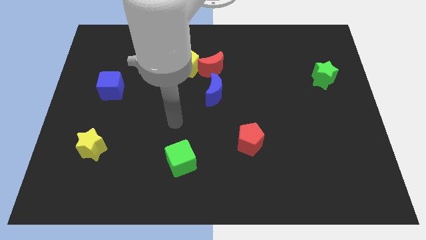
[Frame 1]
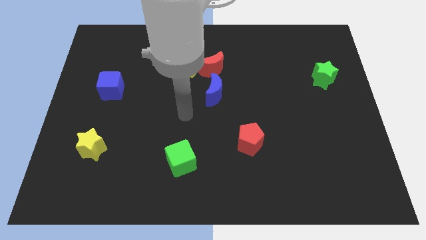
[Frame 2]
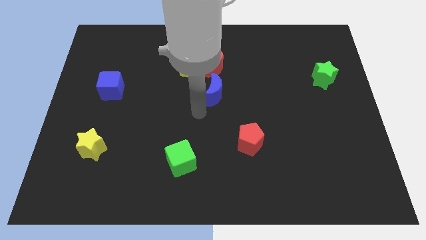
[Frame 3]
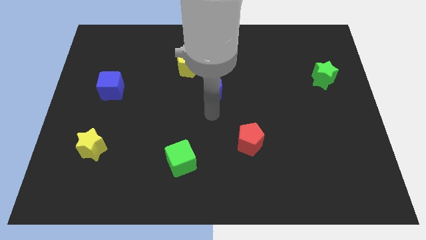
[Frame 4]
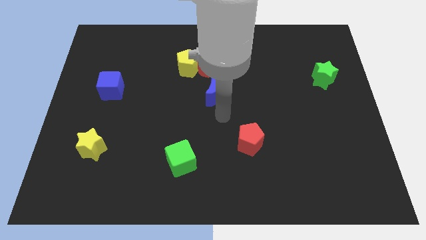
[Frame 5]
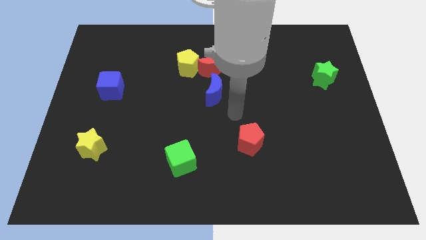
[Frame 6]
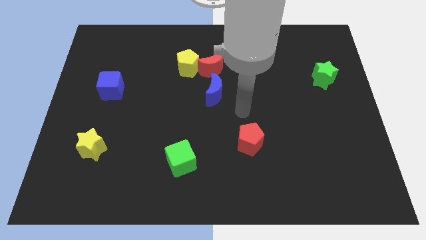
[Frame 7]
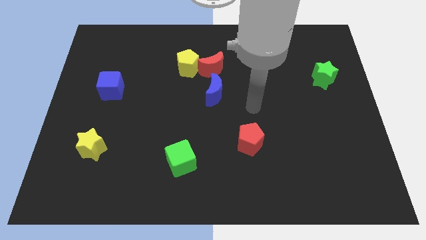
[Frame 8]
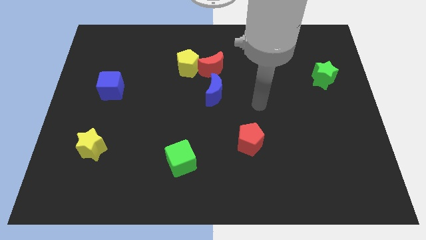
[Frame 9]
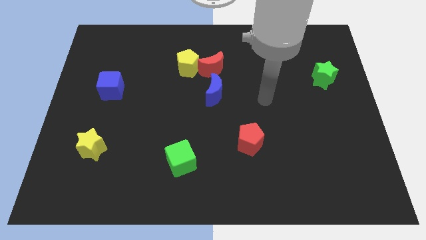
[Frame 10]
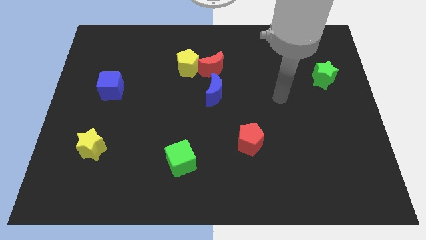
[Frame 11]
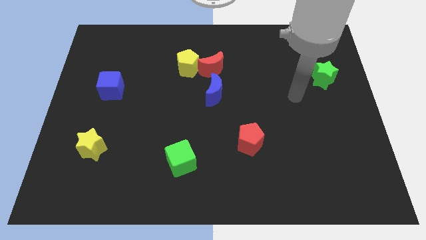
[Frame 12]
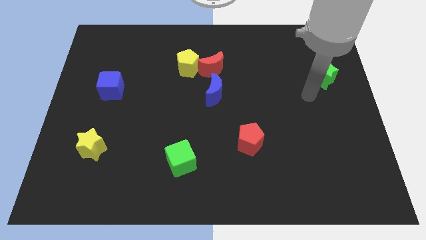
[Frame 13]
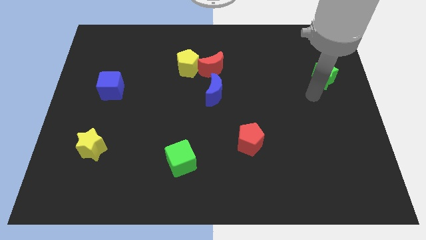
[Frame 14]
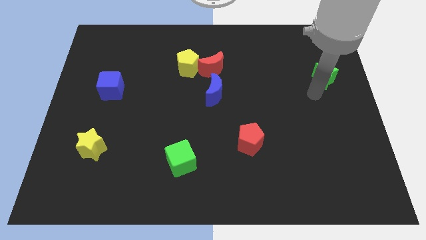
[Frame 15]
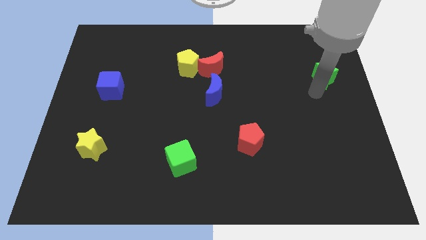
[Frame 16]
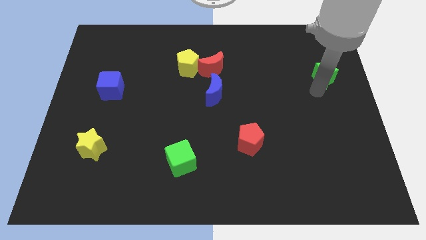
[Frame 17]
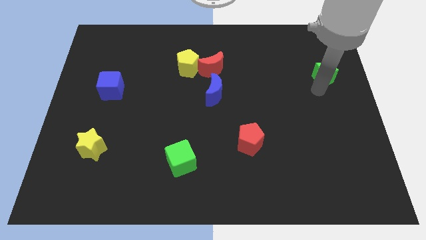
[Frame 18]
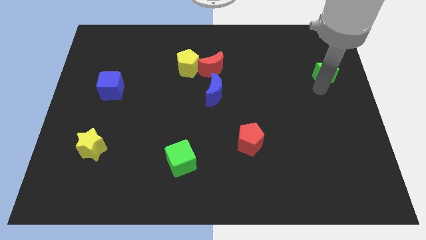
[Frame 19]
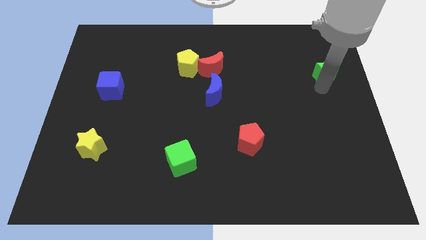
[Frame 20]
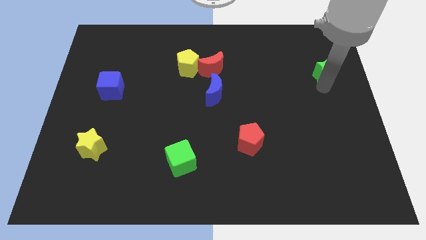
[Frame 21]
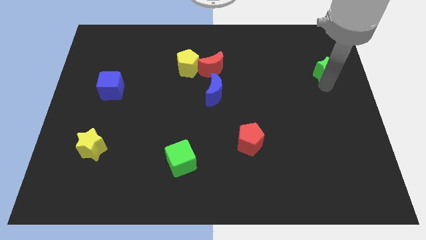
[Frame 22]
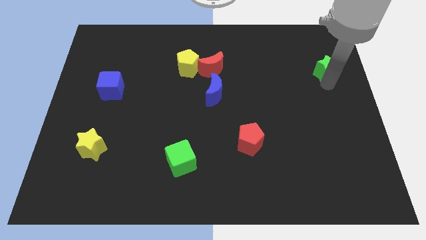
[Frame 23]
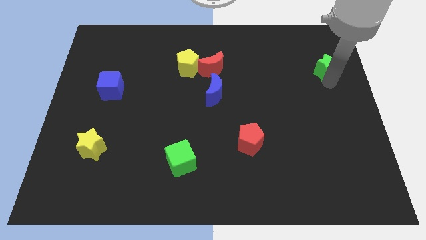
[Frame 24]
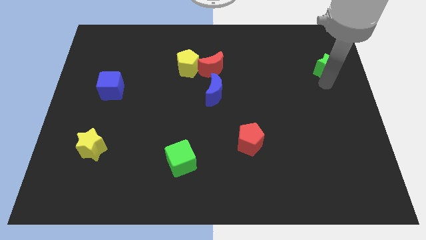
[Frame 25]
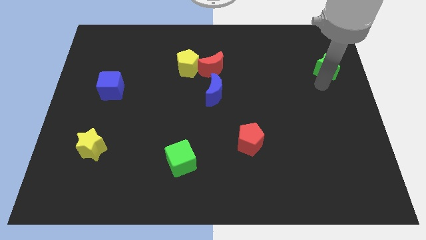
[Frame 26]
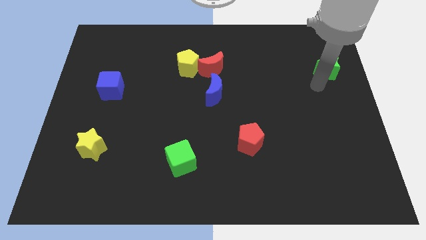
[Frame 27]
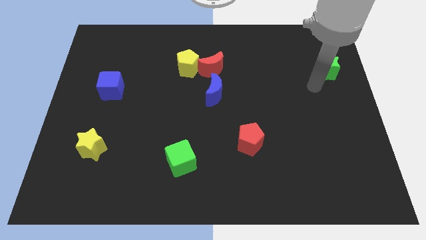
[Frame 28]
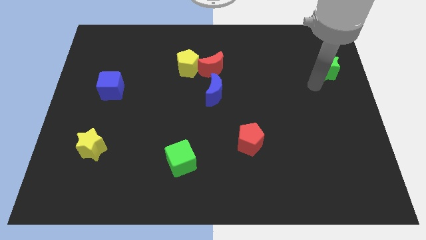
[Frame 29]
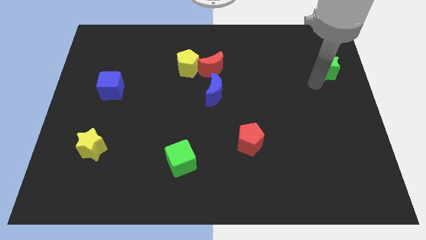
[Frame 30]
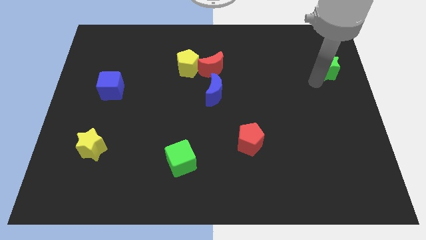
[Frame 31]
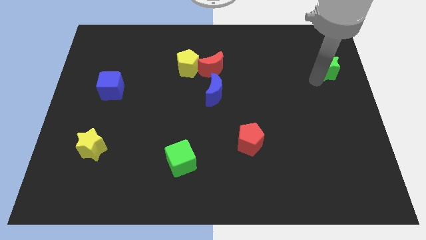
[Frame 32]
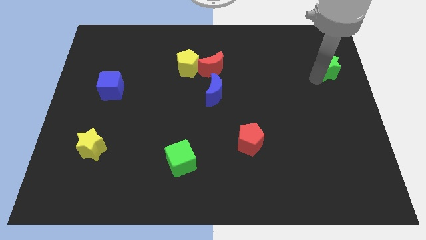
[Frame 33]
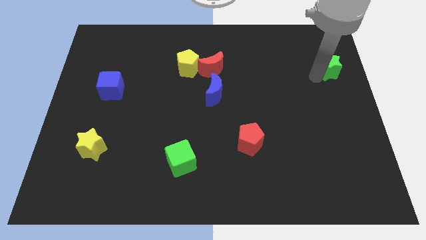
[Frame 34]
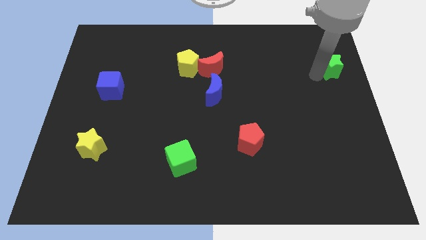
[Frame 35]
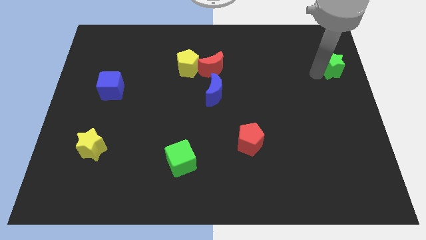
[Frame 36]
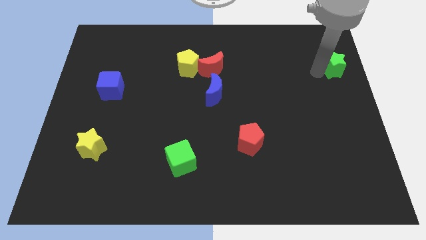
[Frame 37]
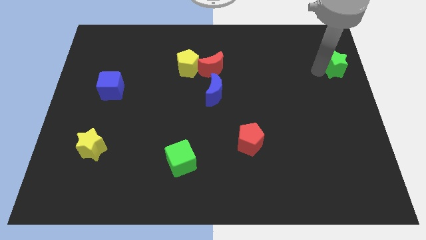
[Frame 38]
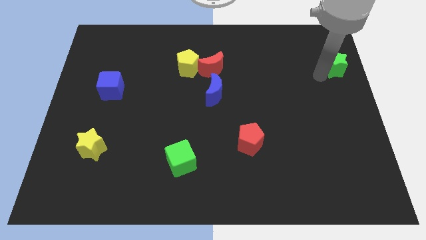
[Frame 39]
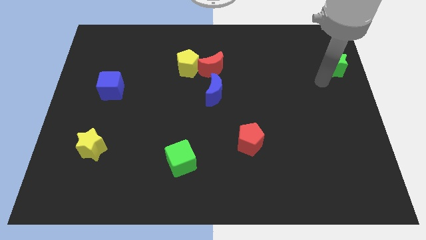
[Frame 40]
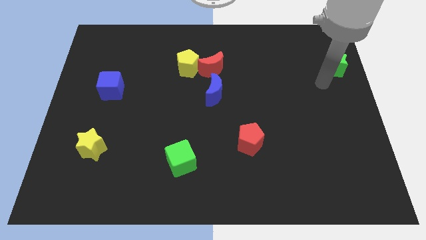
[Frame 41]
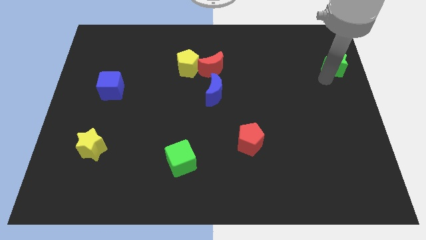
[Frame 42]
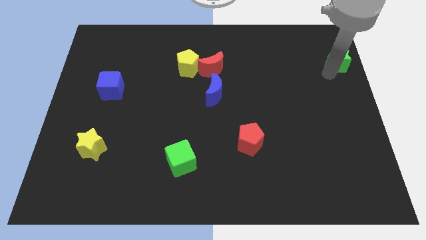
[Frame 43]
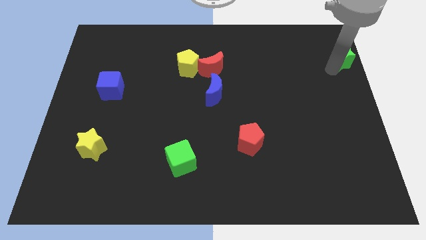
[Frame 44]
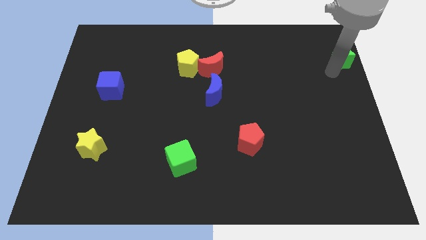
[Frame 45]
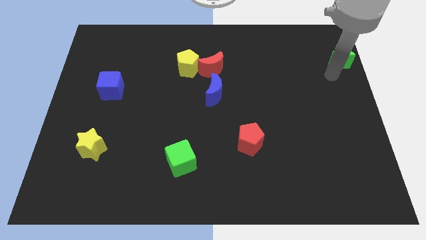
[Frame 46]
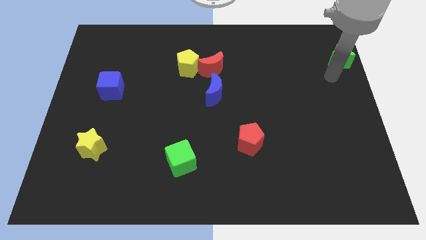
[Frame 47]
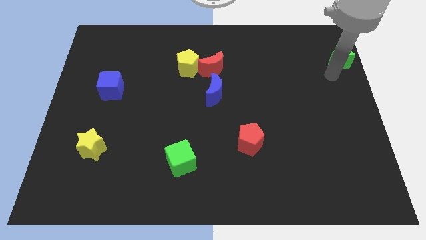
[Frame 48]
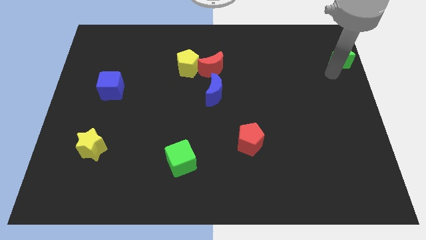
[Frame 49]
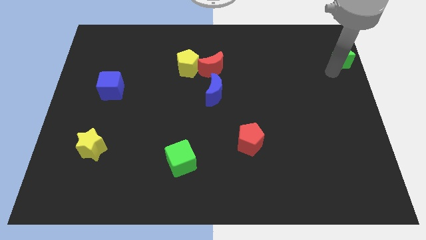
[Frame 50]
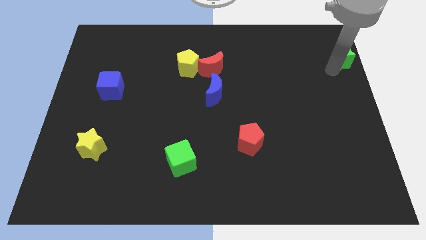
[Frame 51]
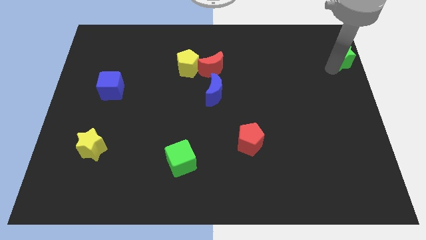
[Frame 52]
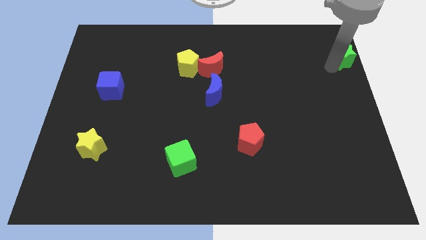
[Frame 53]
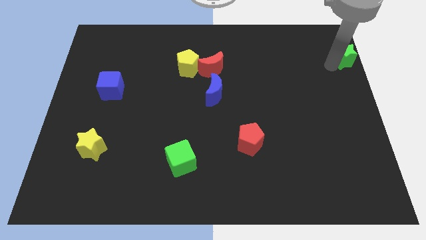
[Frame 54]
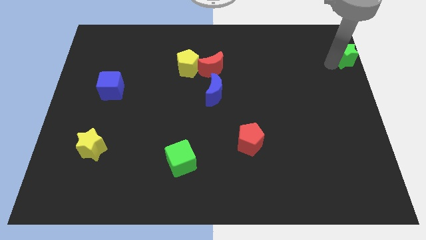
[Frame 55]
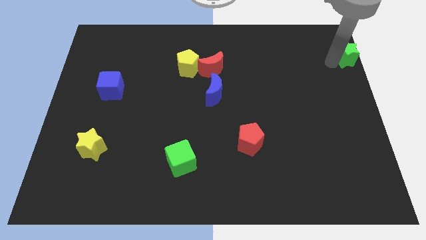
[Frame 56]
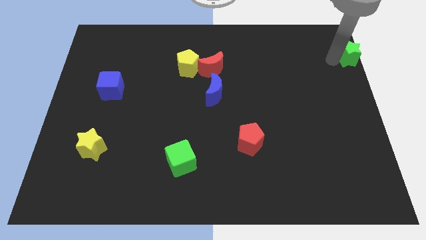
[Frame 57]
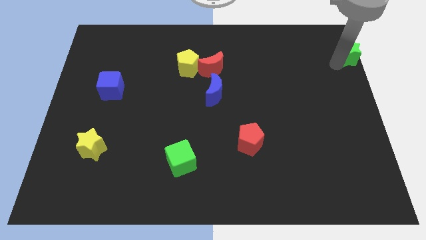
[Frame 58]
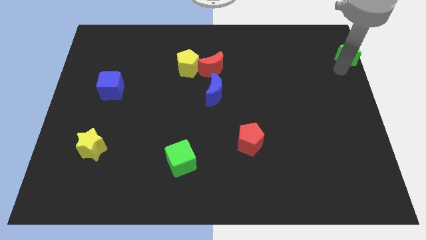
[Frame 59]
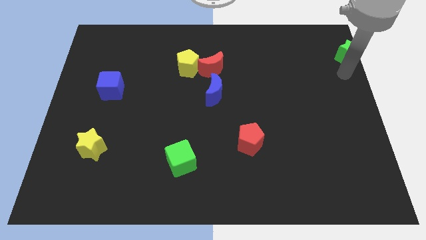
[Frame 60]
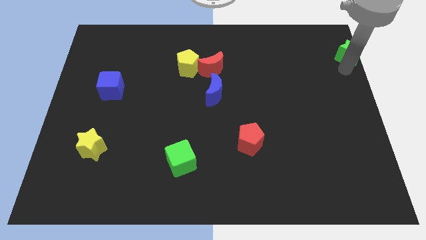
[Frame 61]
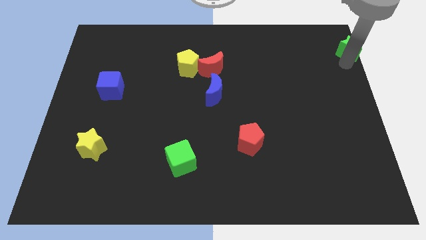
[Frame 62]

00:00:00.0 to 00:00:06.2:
move the green star to the top right of the board
